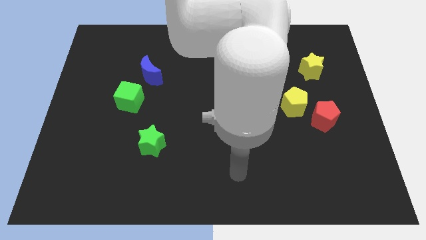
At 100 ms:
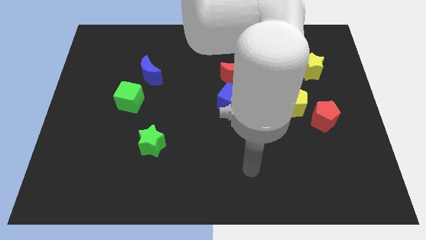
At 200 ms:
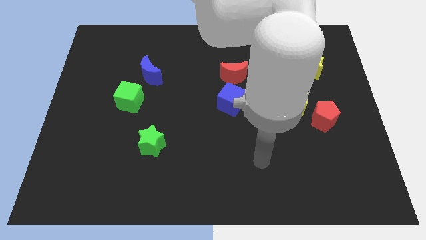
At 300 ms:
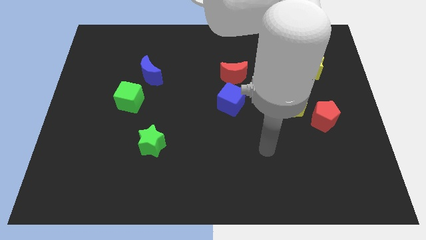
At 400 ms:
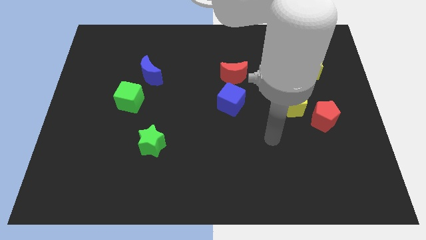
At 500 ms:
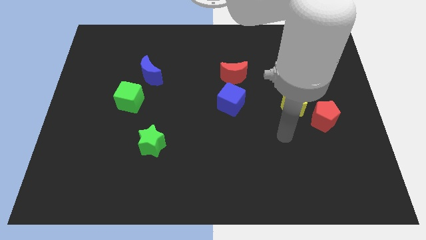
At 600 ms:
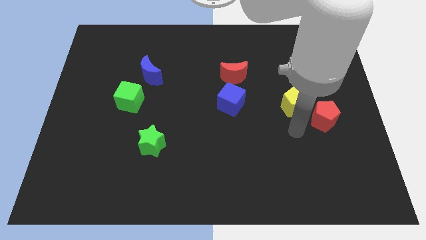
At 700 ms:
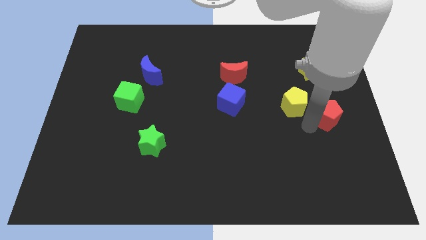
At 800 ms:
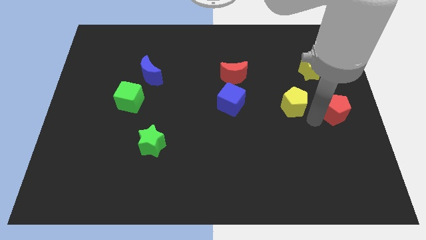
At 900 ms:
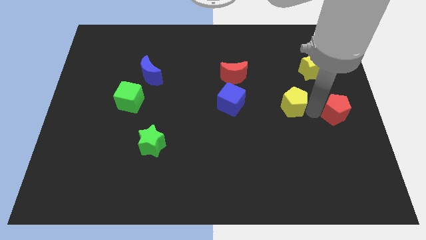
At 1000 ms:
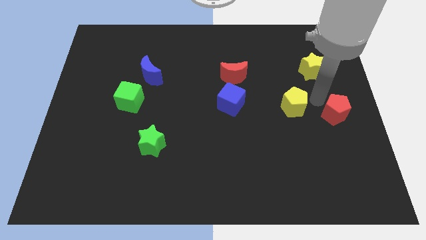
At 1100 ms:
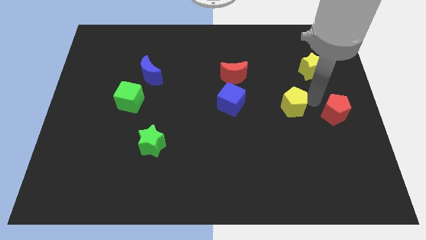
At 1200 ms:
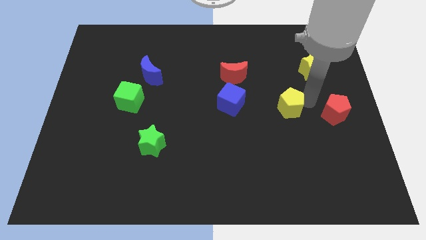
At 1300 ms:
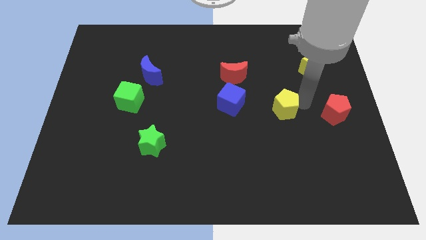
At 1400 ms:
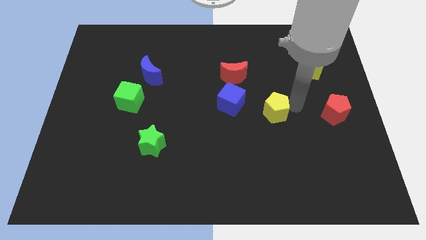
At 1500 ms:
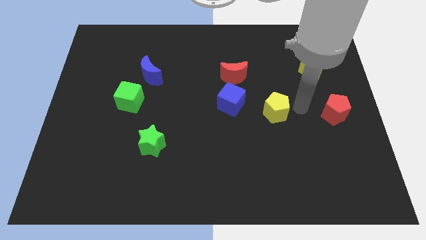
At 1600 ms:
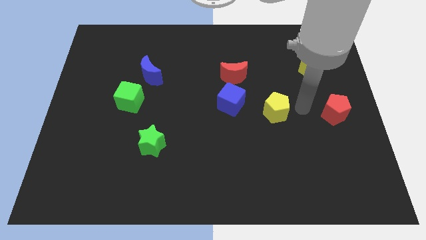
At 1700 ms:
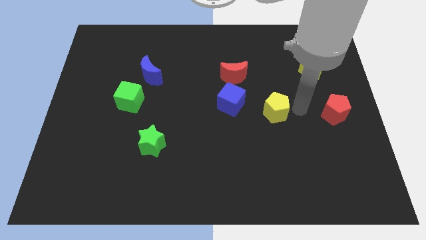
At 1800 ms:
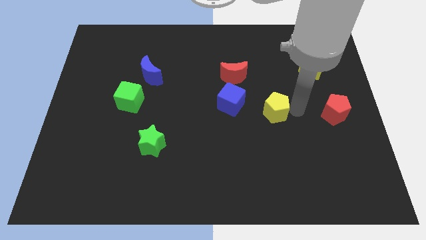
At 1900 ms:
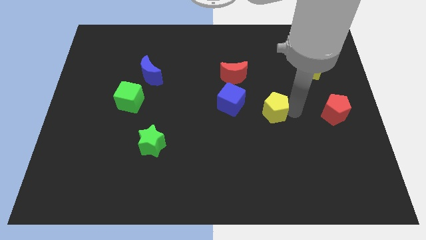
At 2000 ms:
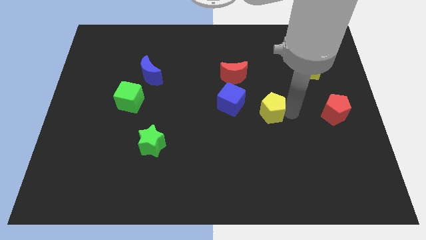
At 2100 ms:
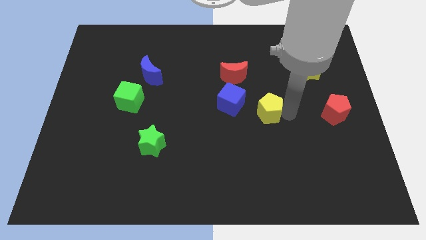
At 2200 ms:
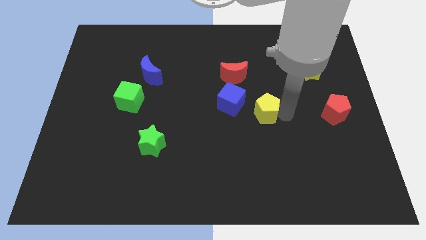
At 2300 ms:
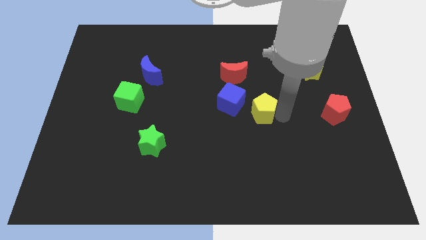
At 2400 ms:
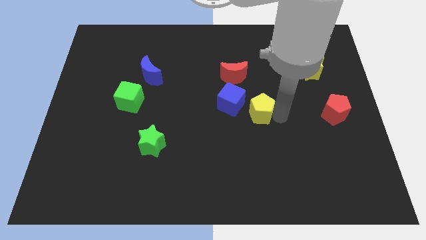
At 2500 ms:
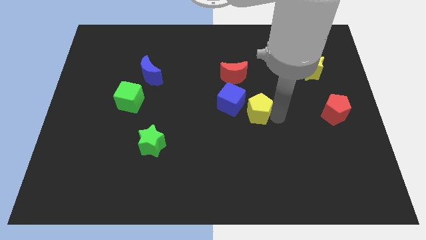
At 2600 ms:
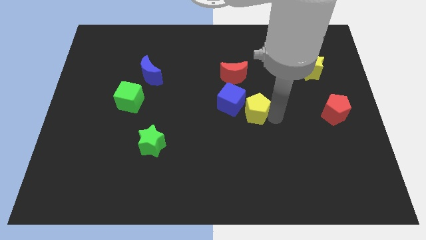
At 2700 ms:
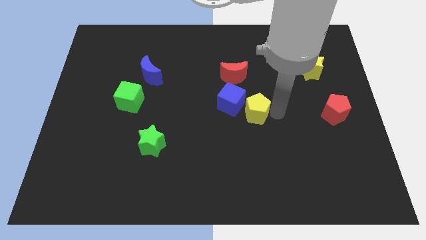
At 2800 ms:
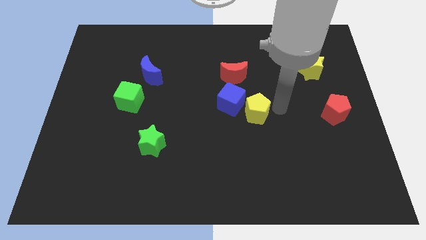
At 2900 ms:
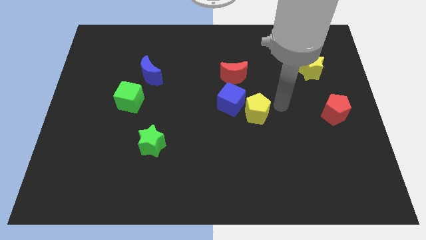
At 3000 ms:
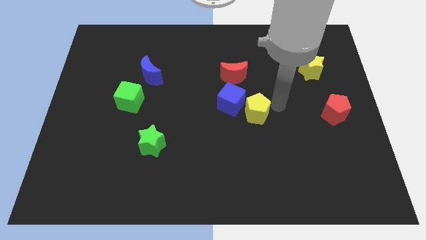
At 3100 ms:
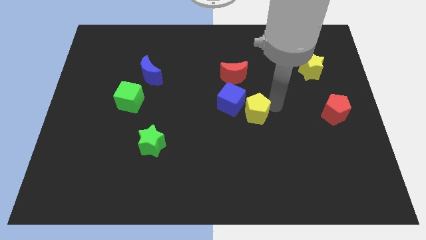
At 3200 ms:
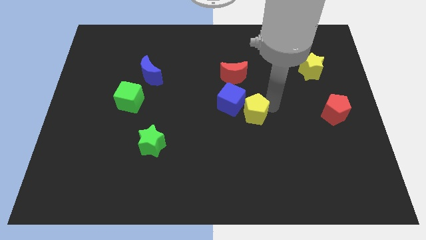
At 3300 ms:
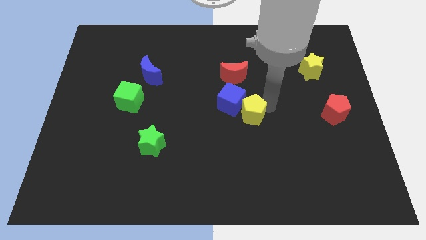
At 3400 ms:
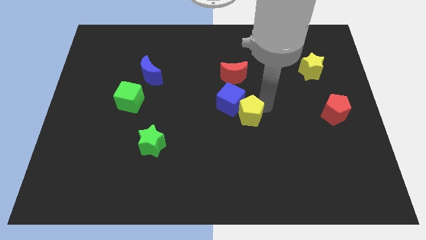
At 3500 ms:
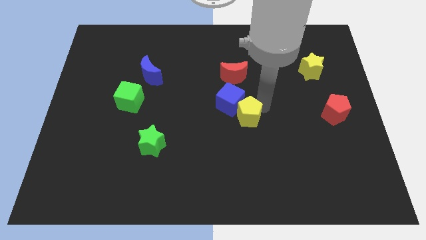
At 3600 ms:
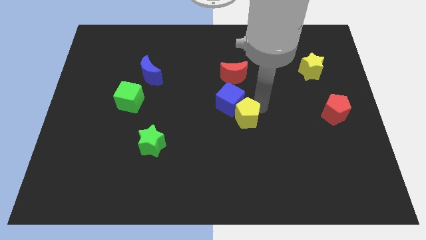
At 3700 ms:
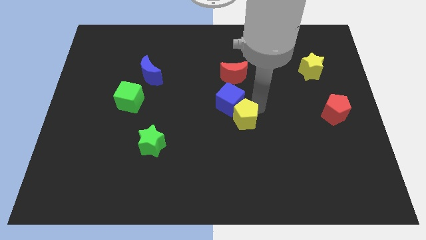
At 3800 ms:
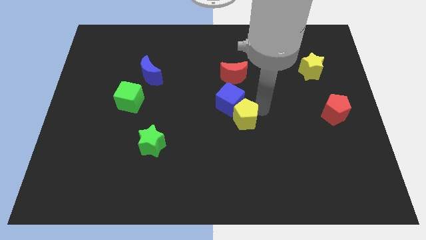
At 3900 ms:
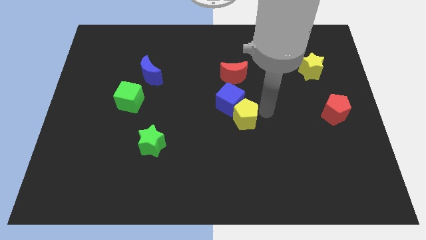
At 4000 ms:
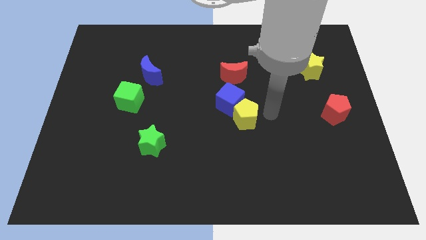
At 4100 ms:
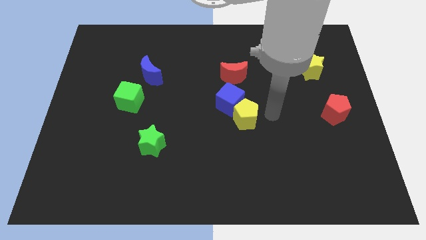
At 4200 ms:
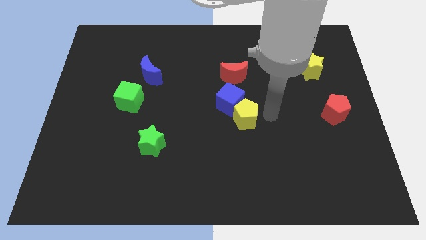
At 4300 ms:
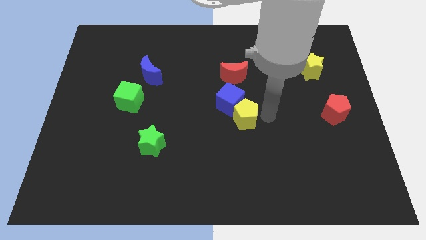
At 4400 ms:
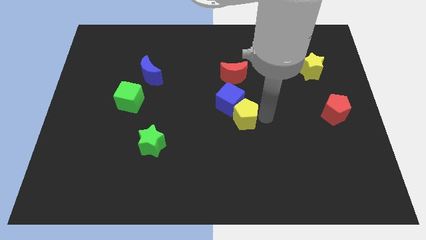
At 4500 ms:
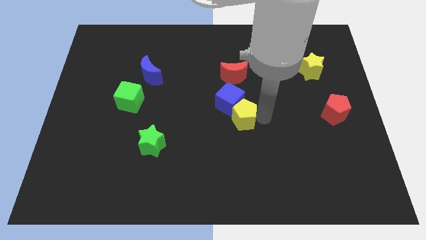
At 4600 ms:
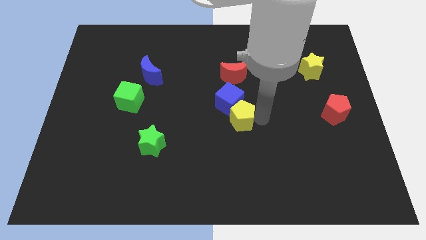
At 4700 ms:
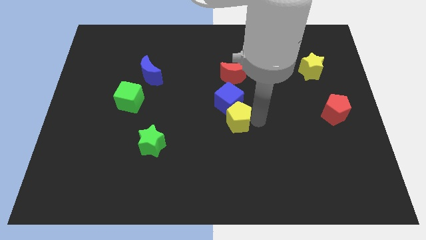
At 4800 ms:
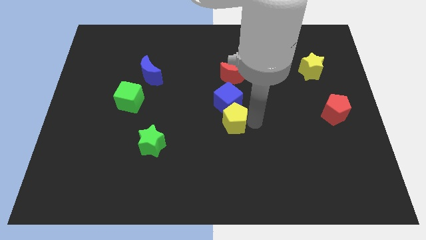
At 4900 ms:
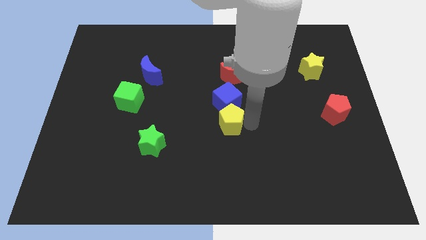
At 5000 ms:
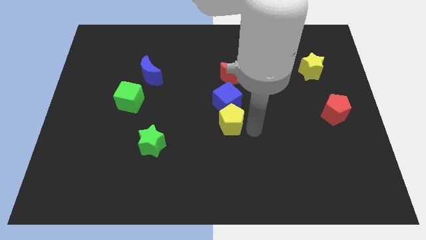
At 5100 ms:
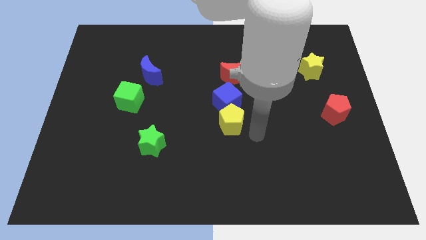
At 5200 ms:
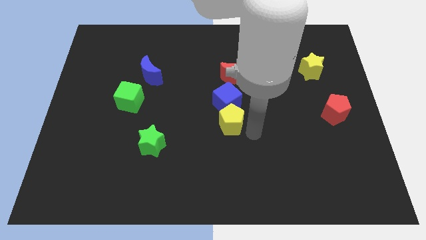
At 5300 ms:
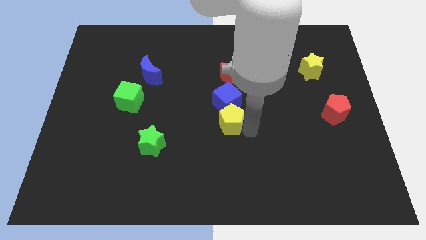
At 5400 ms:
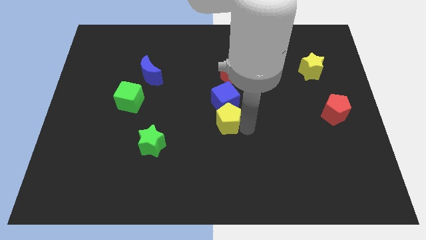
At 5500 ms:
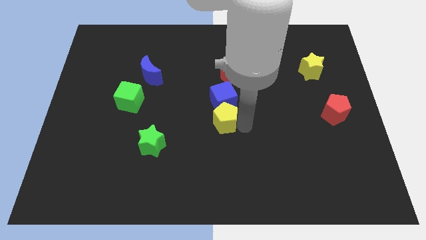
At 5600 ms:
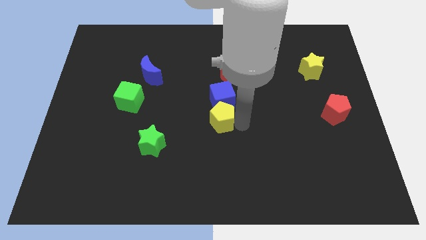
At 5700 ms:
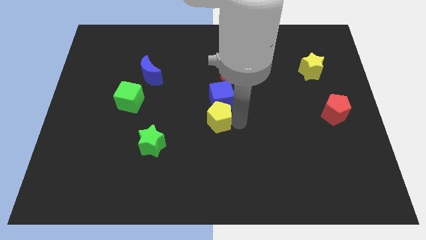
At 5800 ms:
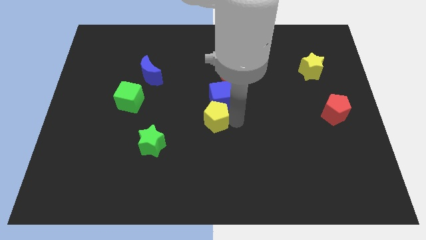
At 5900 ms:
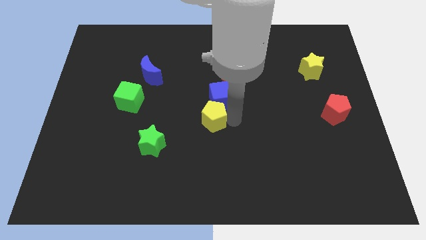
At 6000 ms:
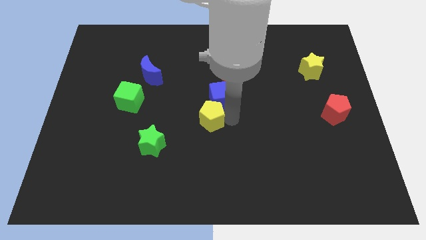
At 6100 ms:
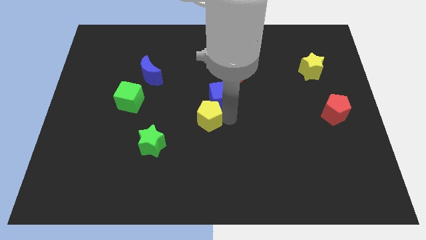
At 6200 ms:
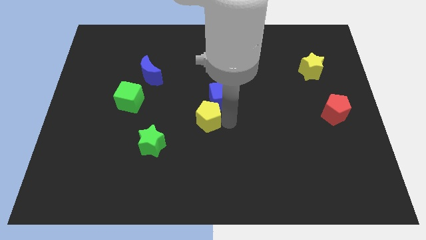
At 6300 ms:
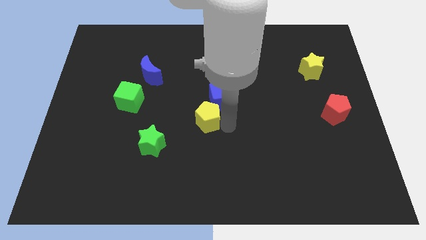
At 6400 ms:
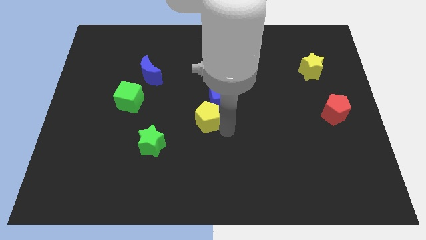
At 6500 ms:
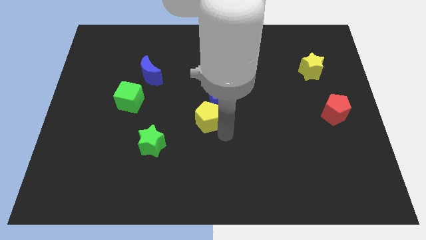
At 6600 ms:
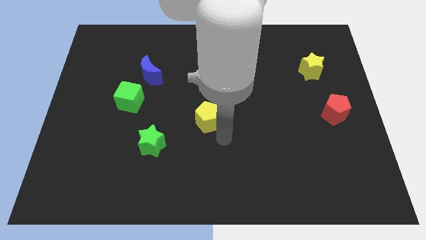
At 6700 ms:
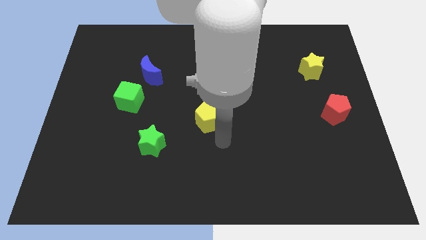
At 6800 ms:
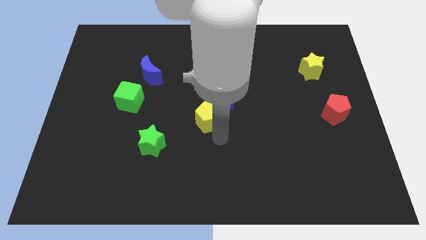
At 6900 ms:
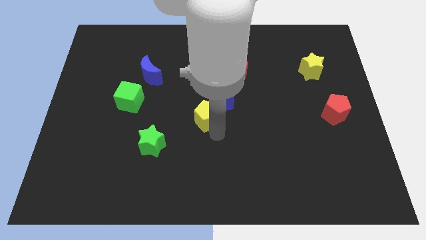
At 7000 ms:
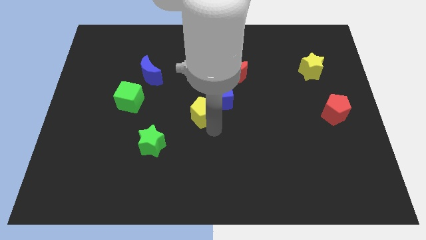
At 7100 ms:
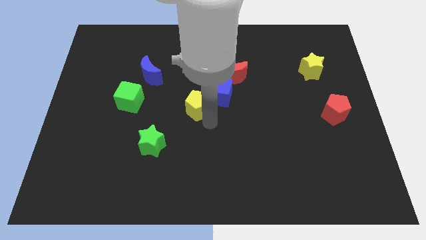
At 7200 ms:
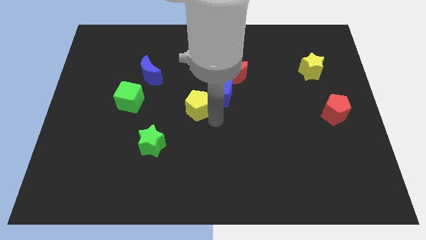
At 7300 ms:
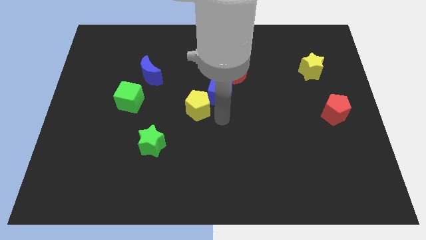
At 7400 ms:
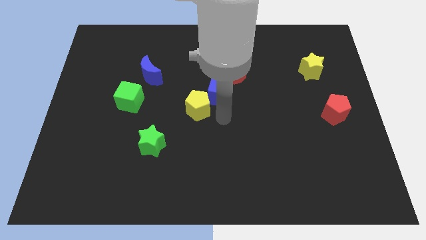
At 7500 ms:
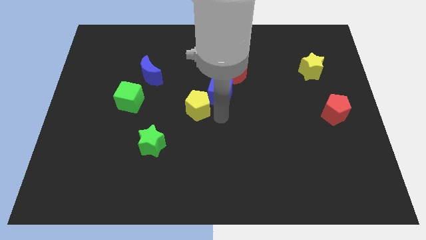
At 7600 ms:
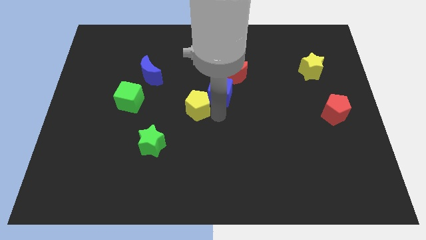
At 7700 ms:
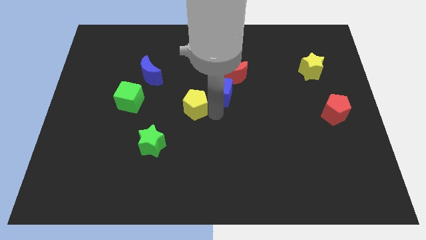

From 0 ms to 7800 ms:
slide the yellow pentagon to the right of the green cube
